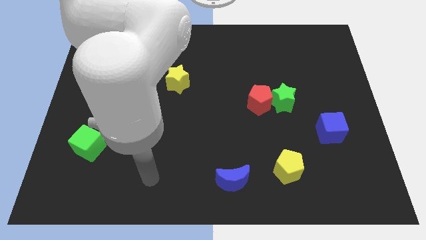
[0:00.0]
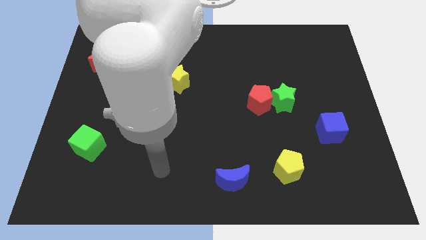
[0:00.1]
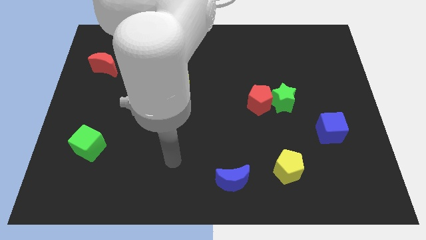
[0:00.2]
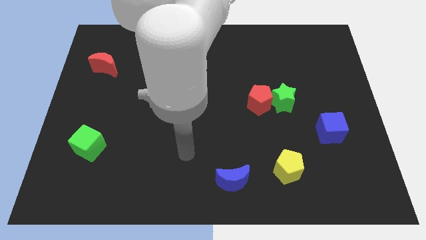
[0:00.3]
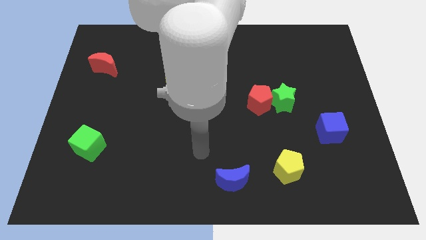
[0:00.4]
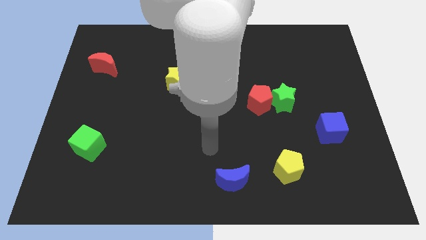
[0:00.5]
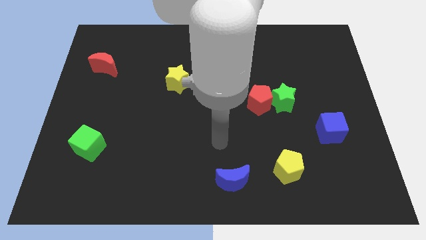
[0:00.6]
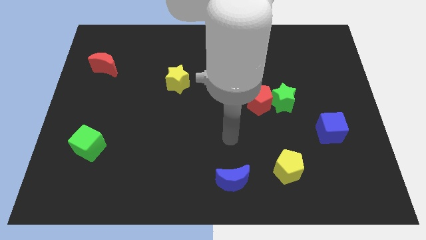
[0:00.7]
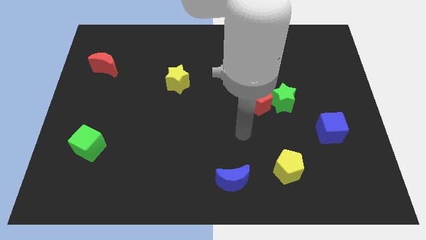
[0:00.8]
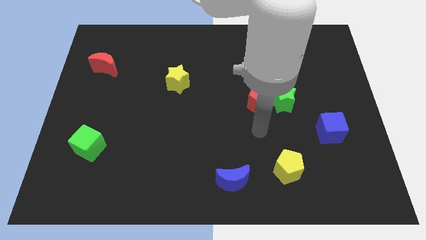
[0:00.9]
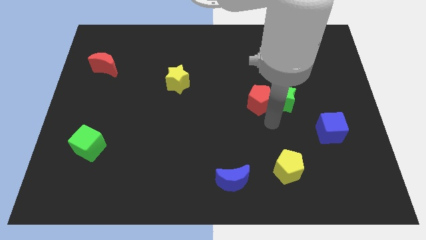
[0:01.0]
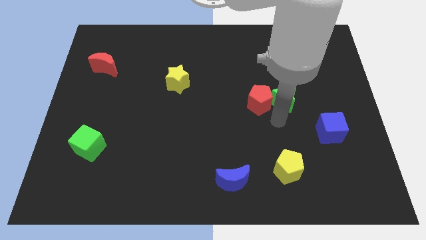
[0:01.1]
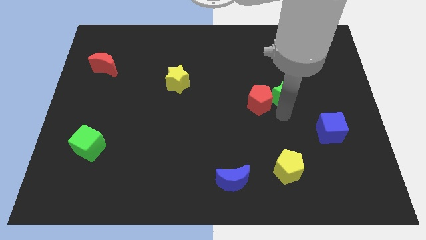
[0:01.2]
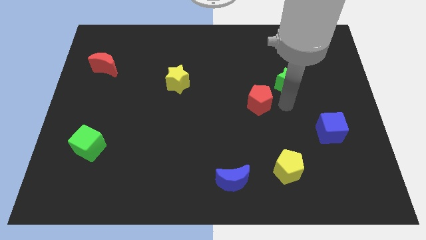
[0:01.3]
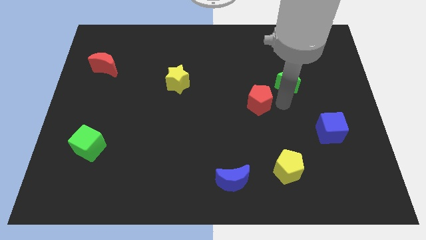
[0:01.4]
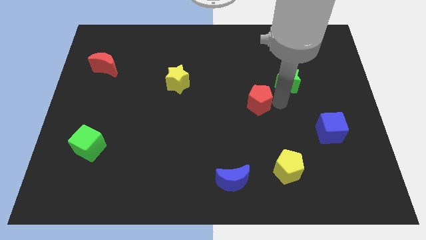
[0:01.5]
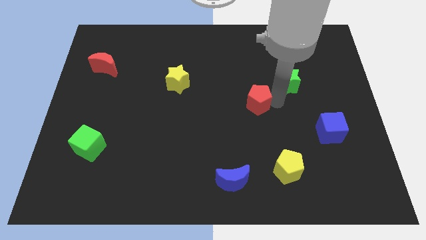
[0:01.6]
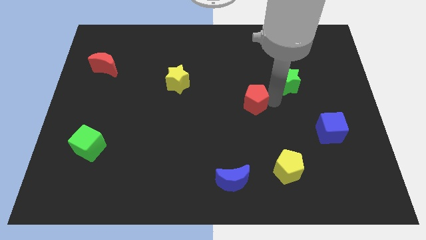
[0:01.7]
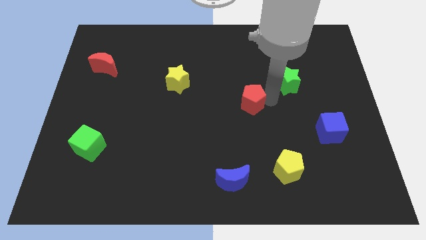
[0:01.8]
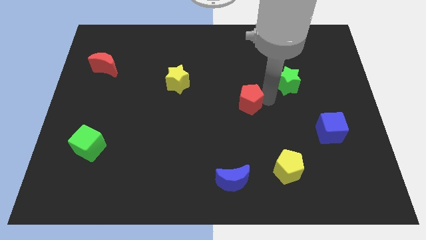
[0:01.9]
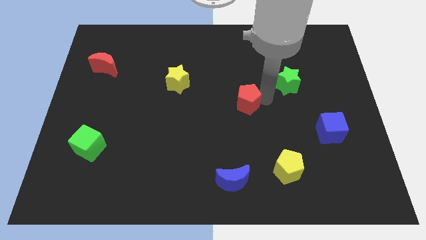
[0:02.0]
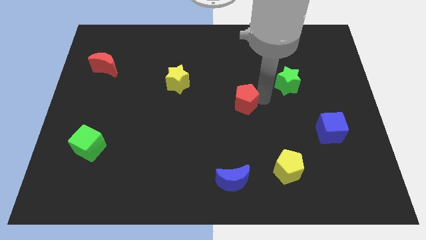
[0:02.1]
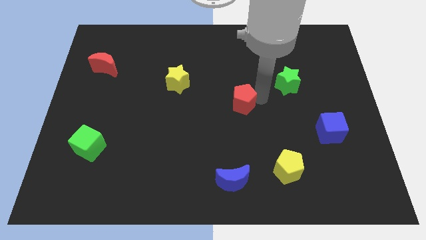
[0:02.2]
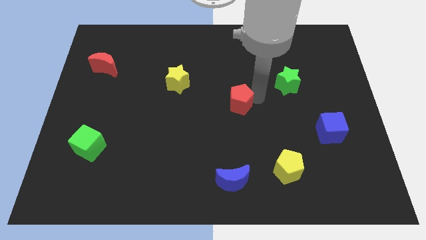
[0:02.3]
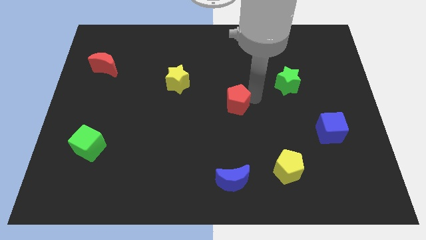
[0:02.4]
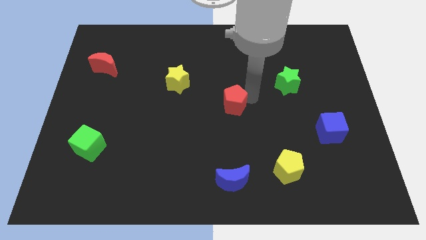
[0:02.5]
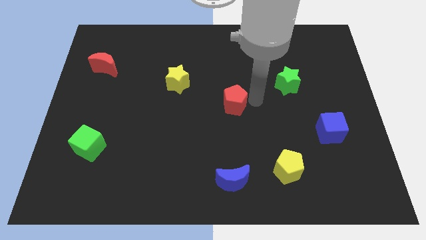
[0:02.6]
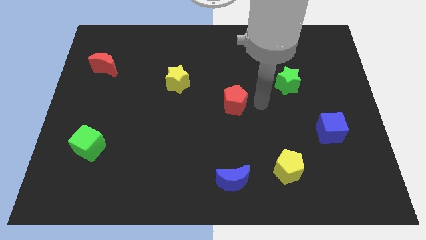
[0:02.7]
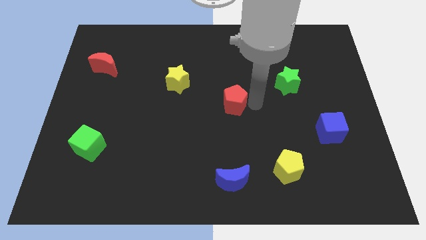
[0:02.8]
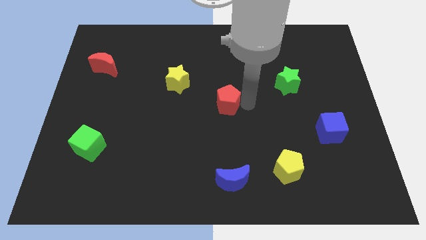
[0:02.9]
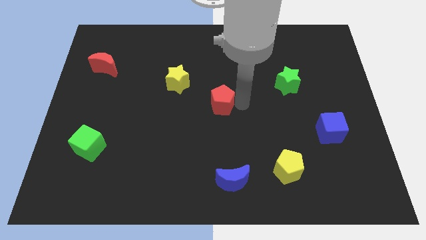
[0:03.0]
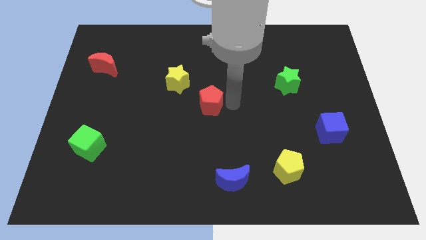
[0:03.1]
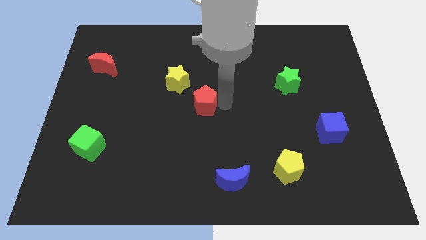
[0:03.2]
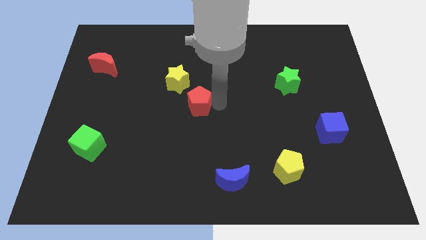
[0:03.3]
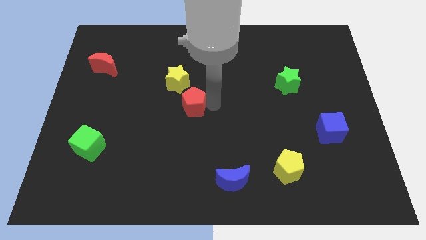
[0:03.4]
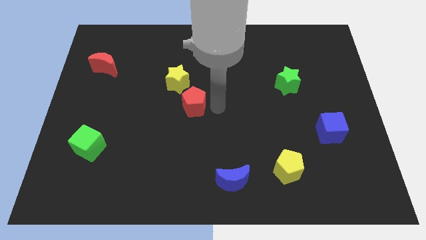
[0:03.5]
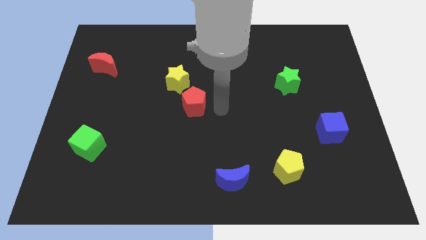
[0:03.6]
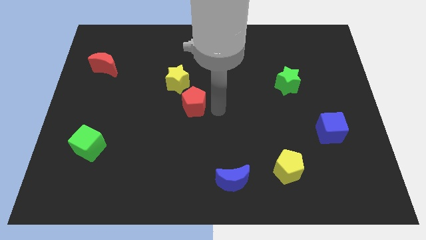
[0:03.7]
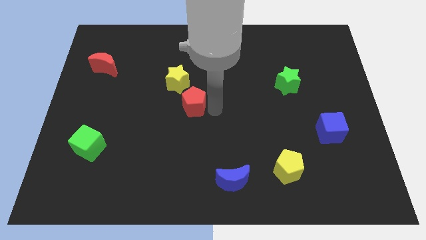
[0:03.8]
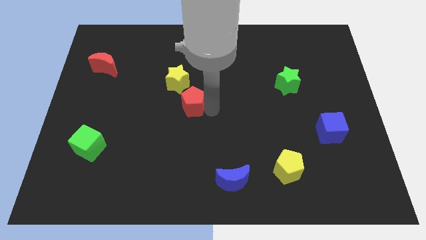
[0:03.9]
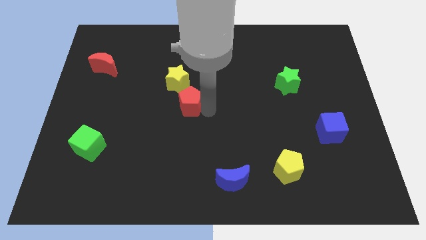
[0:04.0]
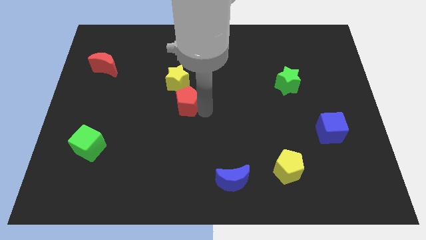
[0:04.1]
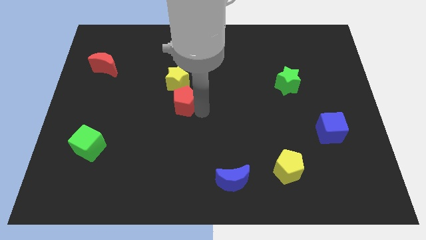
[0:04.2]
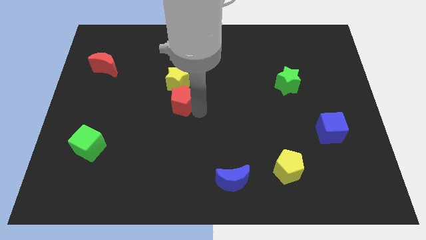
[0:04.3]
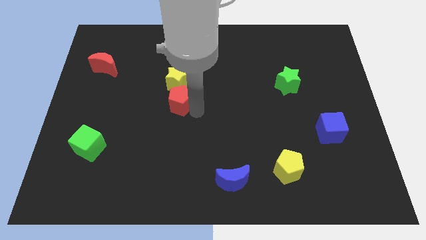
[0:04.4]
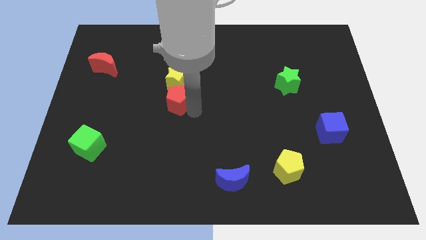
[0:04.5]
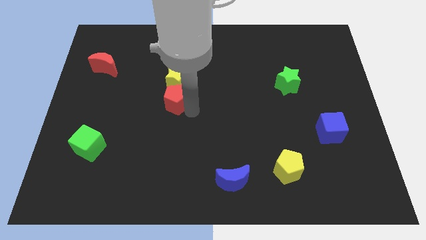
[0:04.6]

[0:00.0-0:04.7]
push the red pentagon left

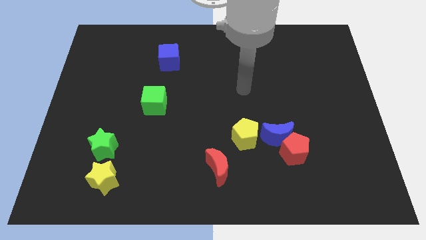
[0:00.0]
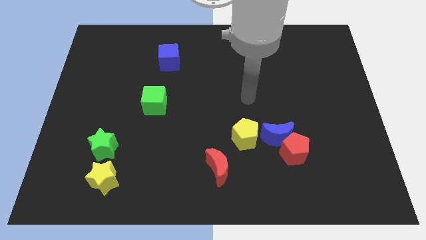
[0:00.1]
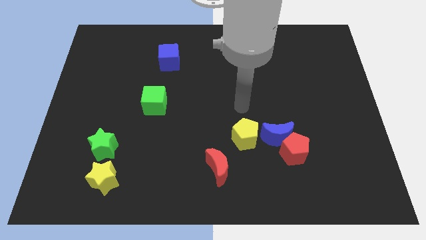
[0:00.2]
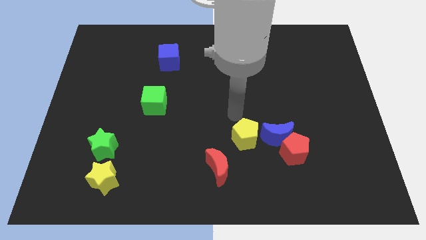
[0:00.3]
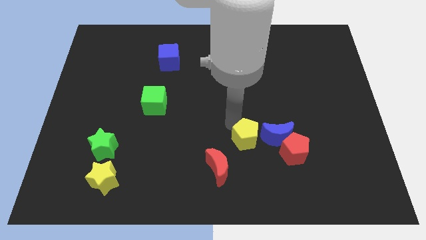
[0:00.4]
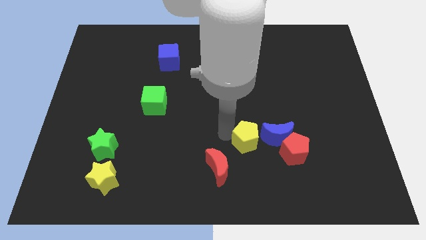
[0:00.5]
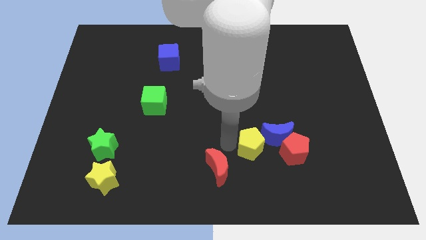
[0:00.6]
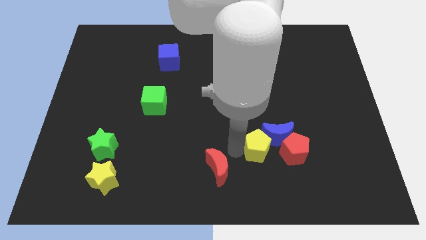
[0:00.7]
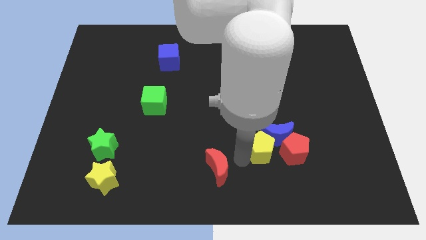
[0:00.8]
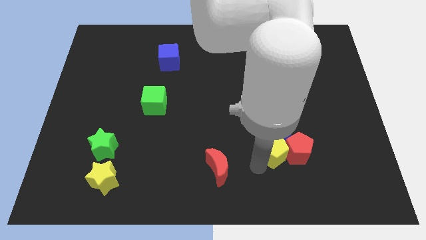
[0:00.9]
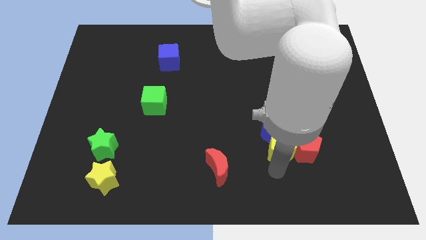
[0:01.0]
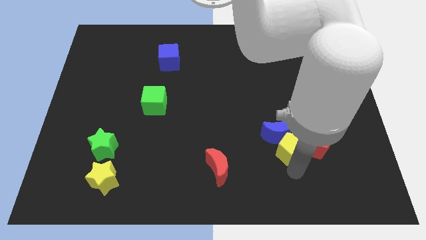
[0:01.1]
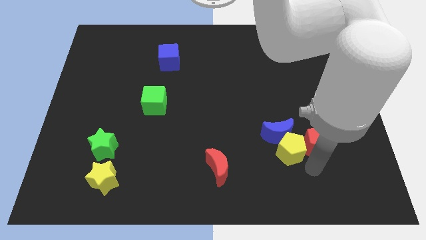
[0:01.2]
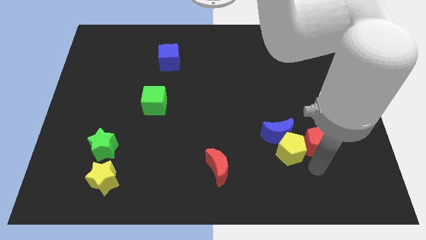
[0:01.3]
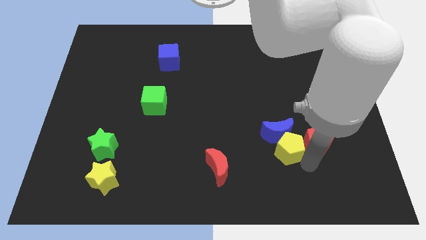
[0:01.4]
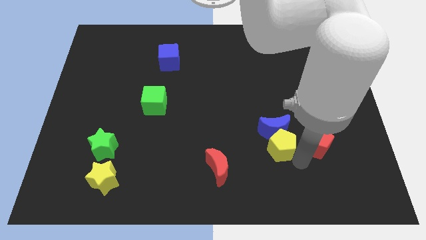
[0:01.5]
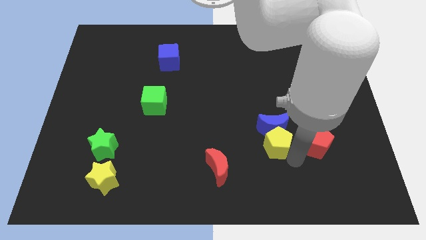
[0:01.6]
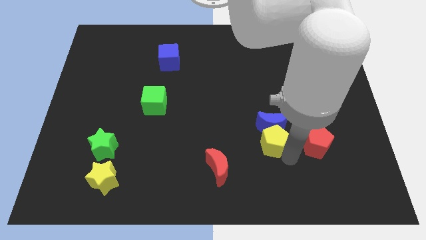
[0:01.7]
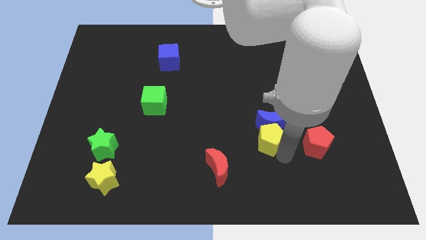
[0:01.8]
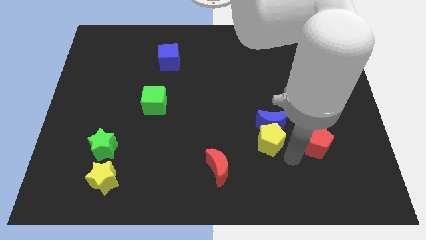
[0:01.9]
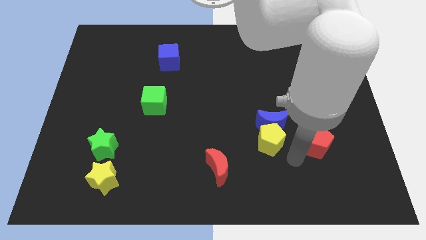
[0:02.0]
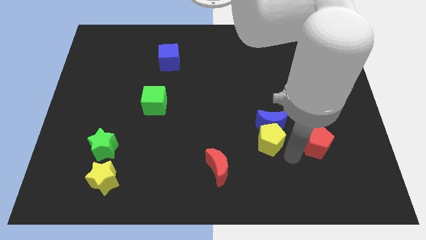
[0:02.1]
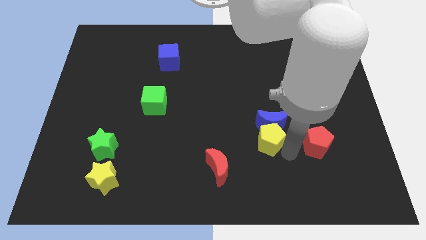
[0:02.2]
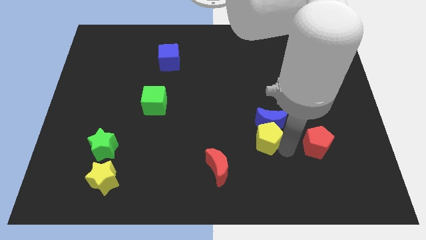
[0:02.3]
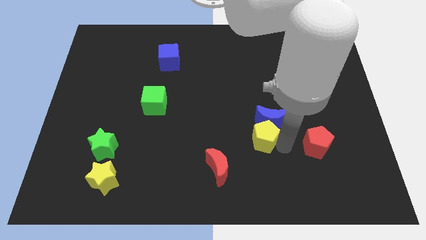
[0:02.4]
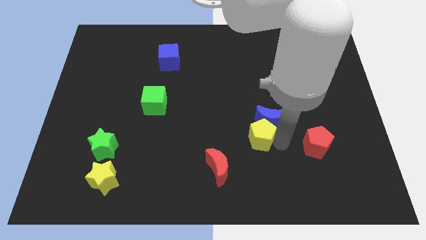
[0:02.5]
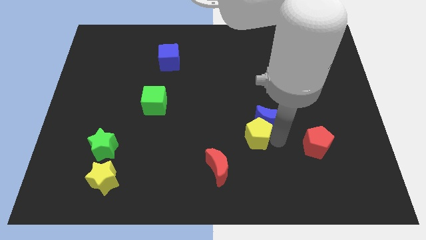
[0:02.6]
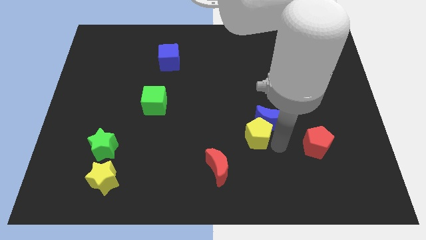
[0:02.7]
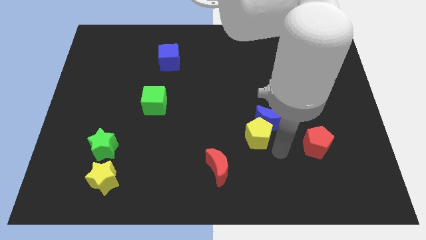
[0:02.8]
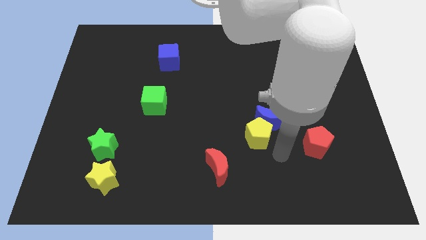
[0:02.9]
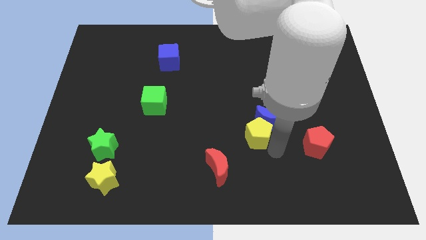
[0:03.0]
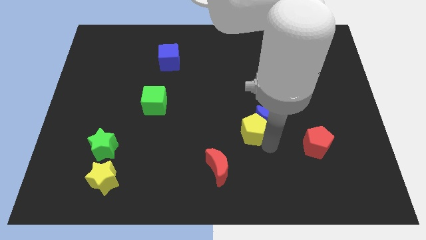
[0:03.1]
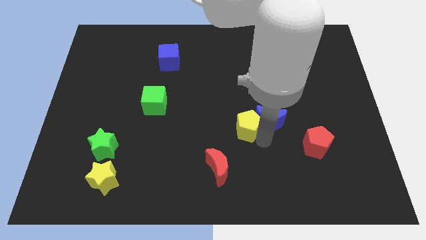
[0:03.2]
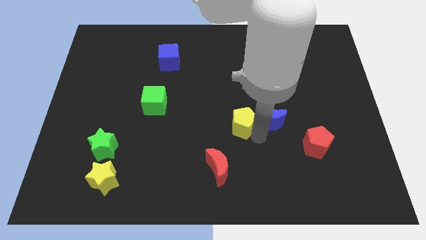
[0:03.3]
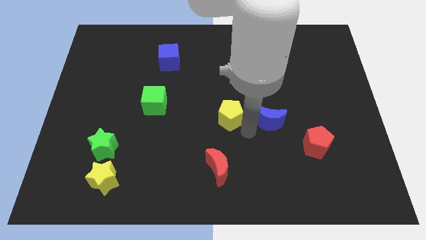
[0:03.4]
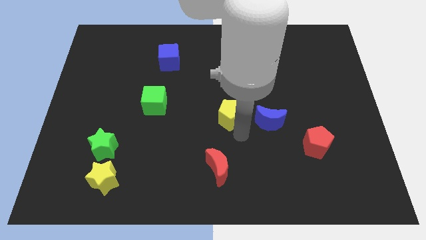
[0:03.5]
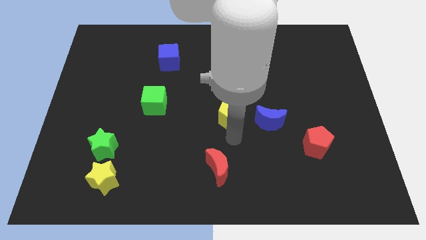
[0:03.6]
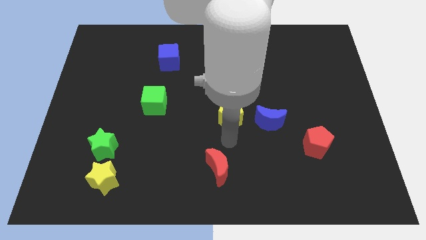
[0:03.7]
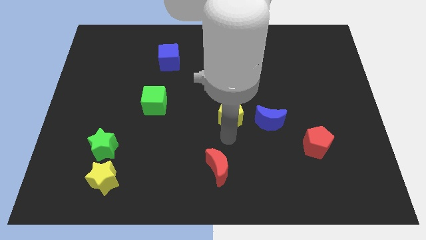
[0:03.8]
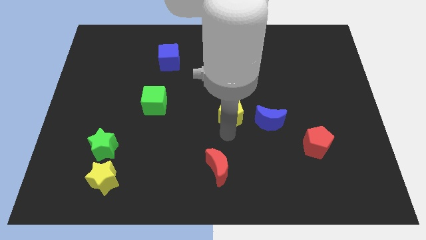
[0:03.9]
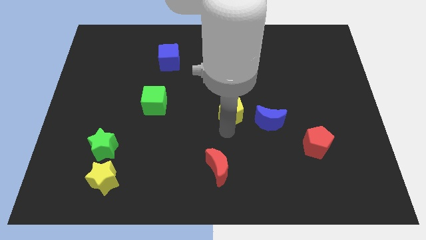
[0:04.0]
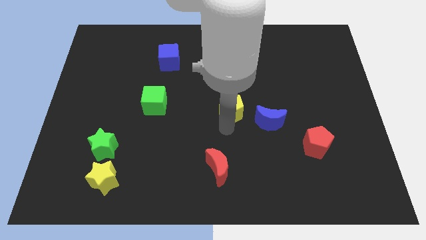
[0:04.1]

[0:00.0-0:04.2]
move the yellow pentagon a bit up
